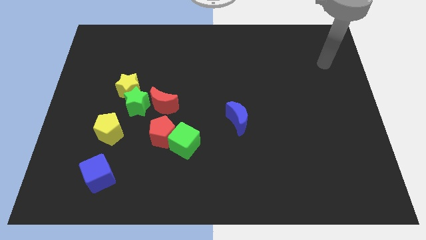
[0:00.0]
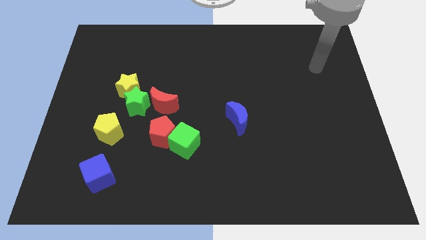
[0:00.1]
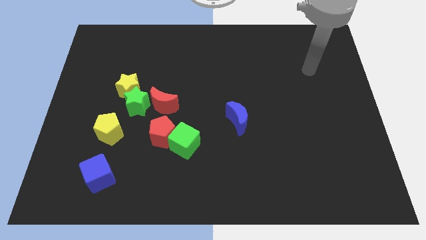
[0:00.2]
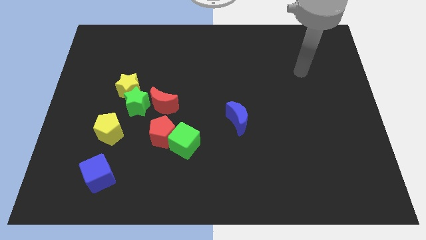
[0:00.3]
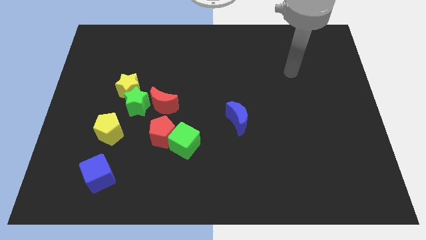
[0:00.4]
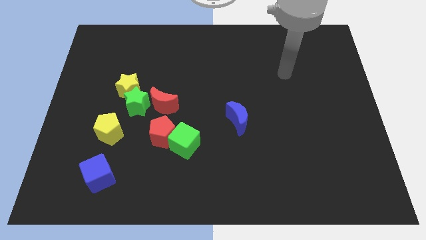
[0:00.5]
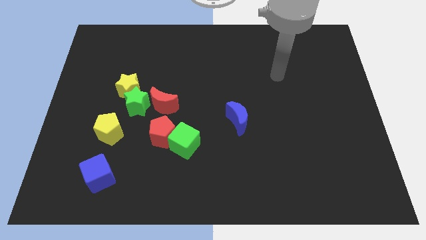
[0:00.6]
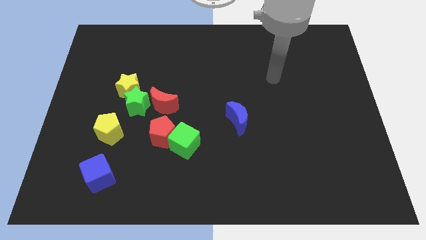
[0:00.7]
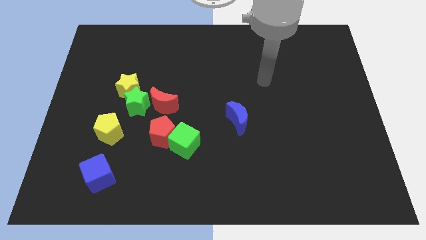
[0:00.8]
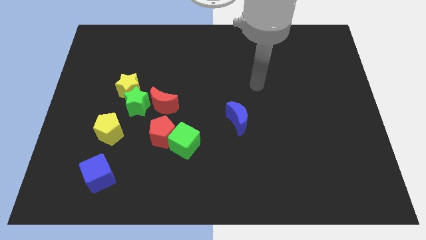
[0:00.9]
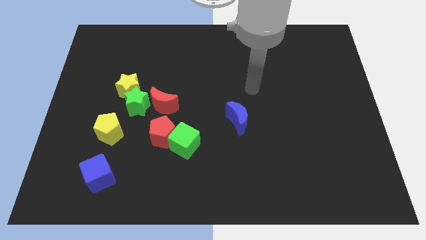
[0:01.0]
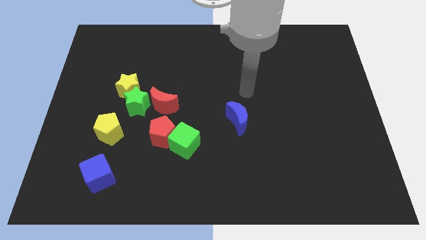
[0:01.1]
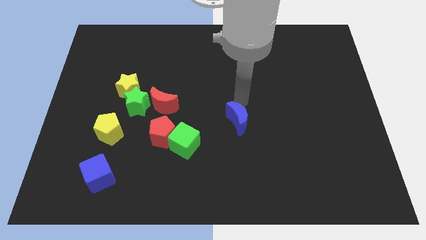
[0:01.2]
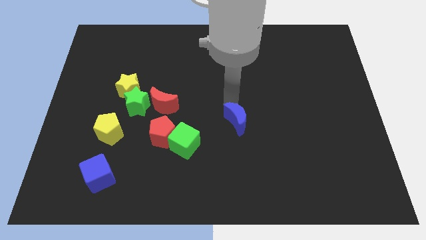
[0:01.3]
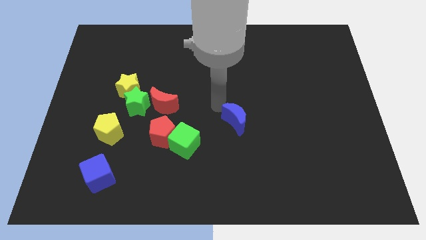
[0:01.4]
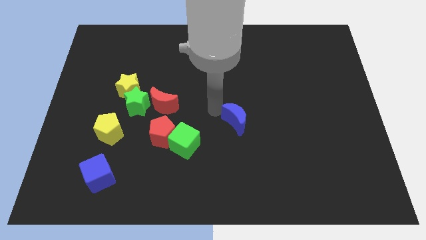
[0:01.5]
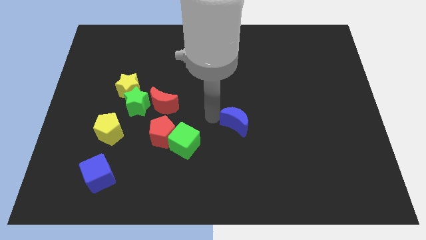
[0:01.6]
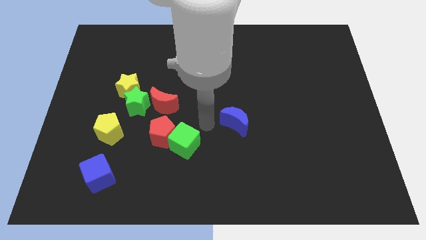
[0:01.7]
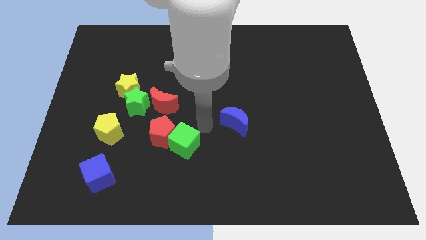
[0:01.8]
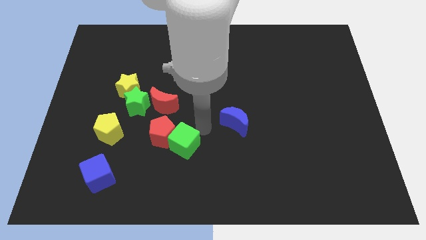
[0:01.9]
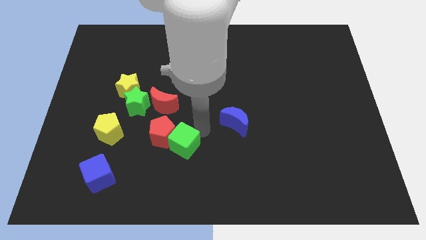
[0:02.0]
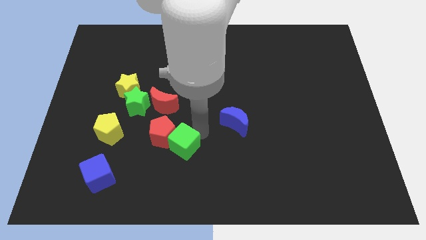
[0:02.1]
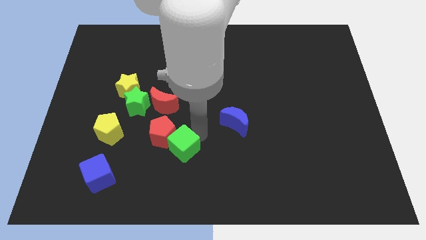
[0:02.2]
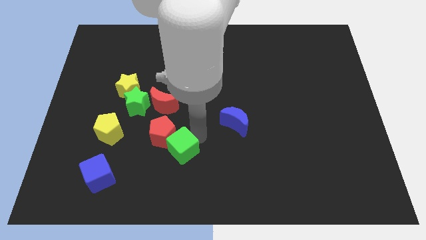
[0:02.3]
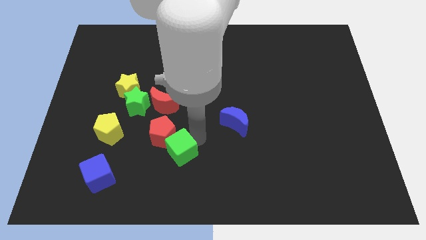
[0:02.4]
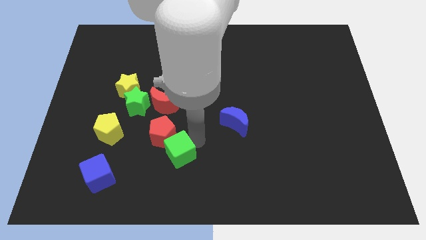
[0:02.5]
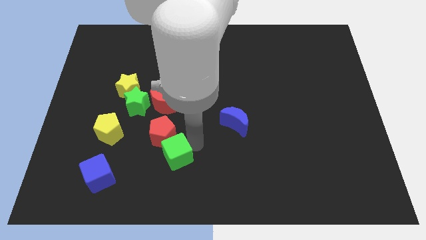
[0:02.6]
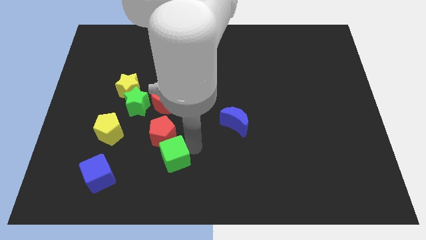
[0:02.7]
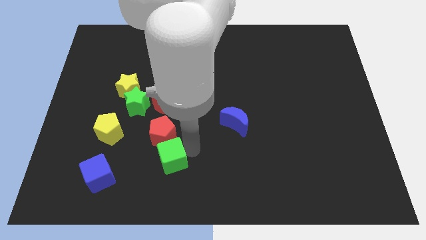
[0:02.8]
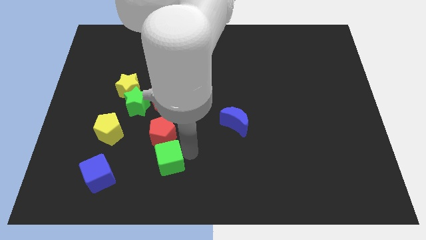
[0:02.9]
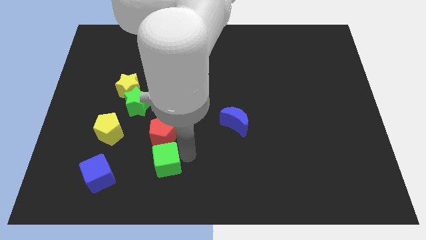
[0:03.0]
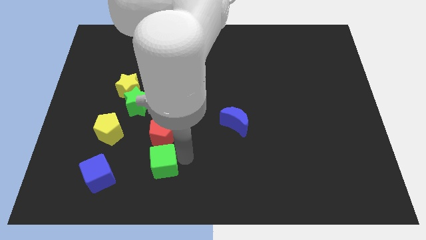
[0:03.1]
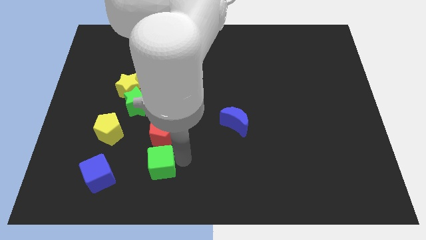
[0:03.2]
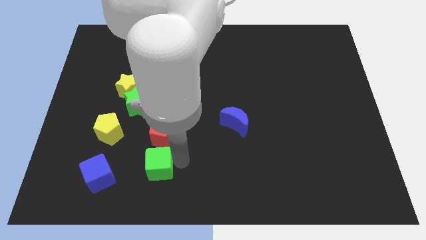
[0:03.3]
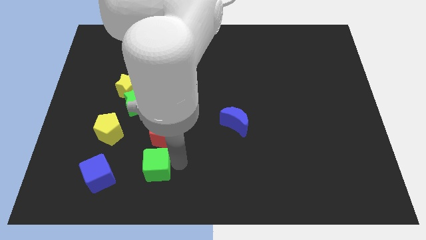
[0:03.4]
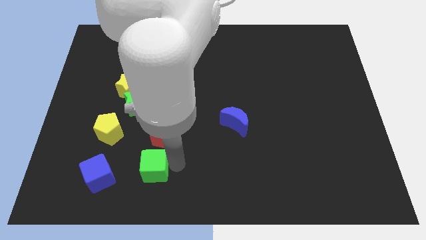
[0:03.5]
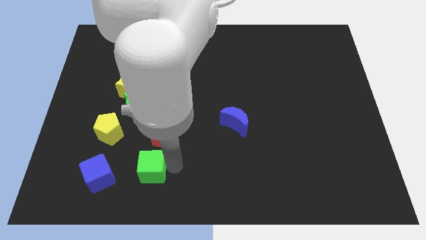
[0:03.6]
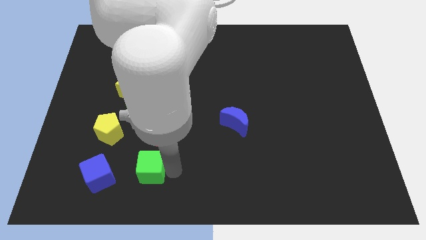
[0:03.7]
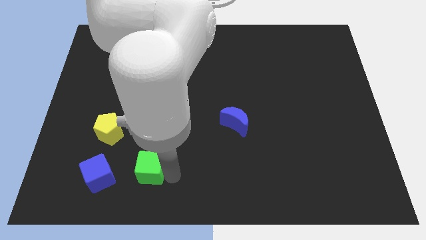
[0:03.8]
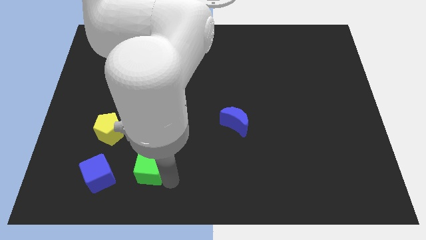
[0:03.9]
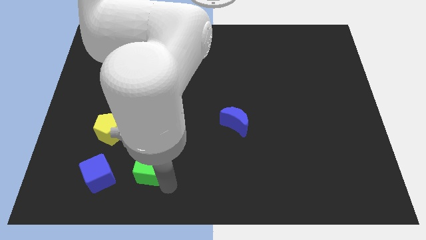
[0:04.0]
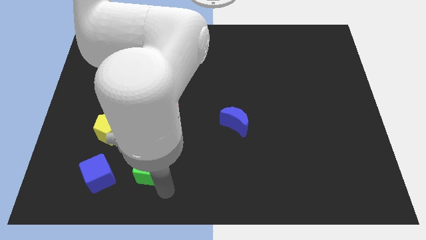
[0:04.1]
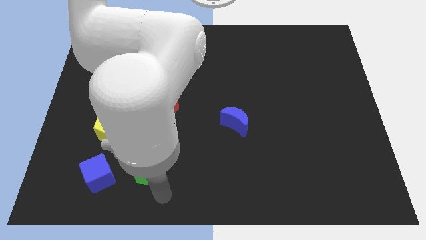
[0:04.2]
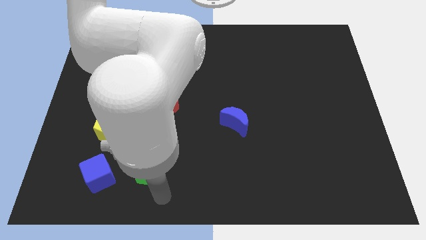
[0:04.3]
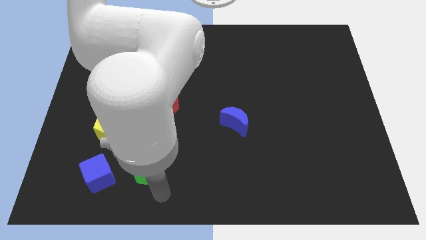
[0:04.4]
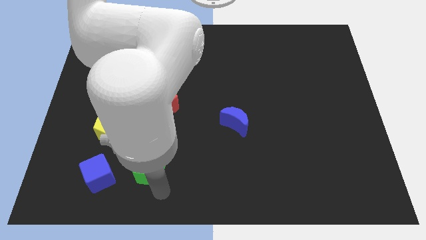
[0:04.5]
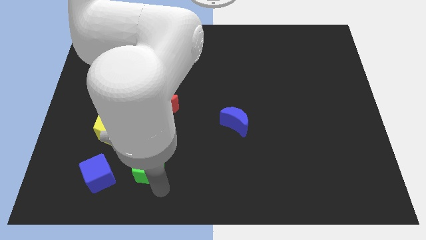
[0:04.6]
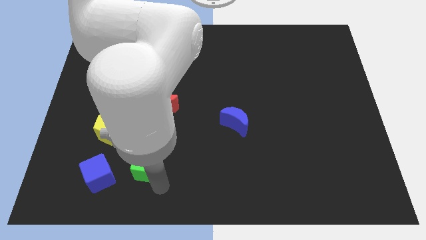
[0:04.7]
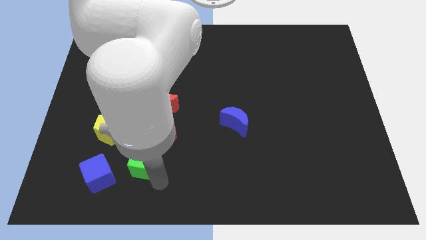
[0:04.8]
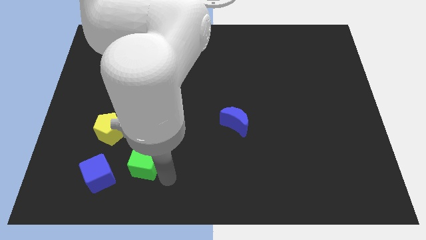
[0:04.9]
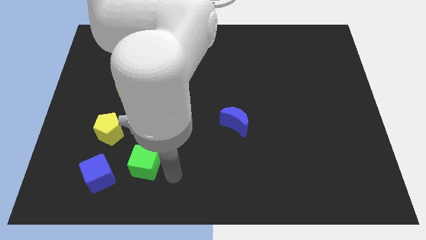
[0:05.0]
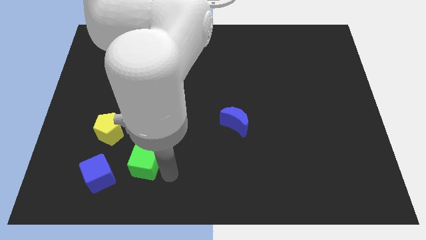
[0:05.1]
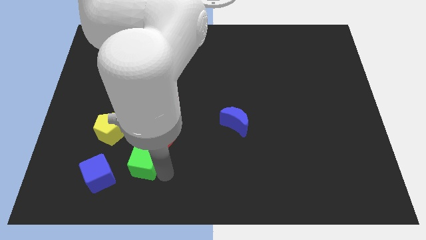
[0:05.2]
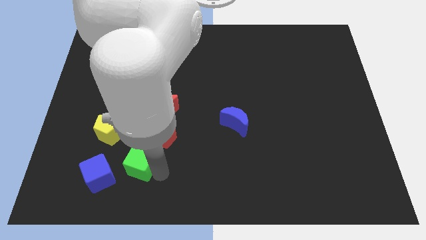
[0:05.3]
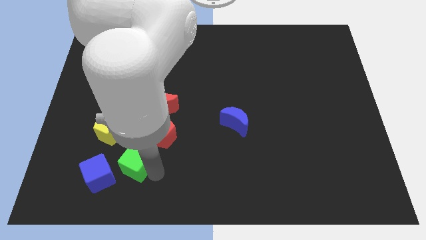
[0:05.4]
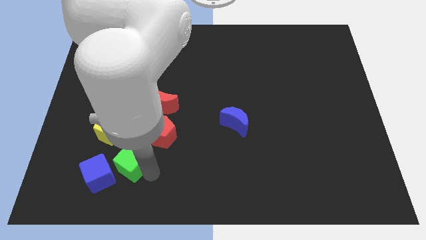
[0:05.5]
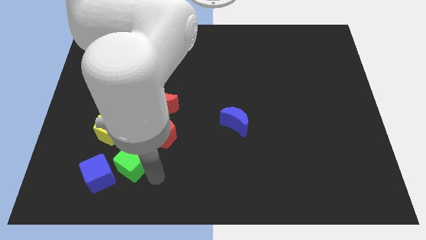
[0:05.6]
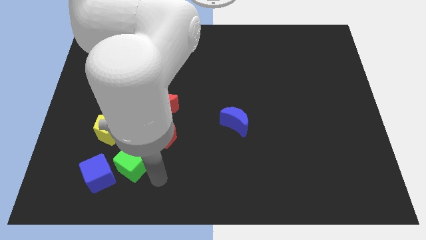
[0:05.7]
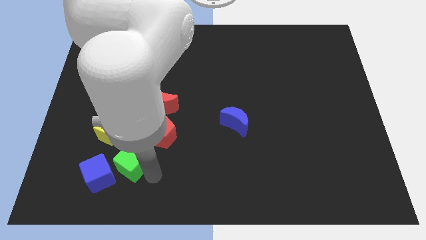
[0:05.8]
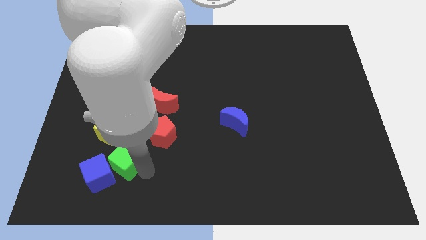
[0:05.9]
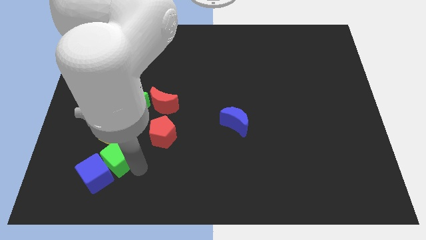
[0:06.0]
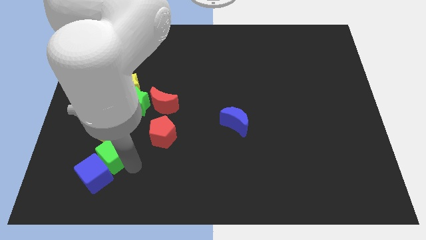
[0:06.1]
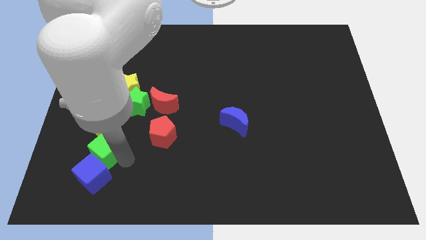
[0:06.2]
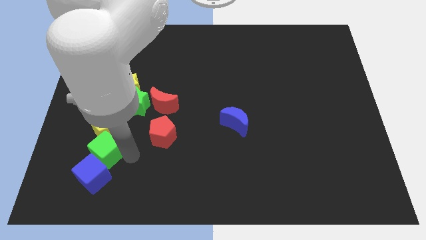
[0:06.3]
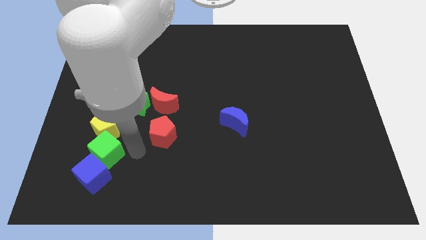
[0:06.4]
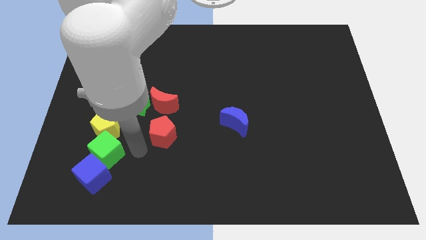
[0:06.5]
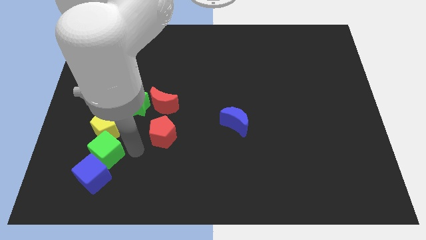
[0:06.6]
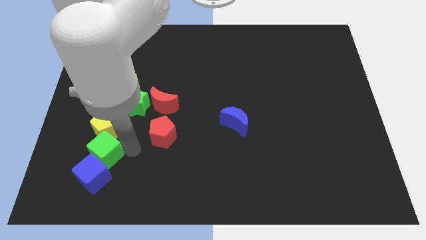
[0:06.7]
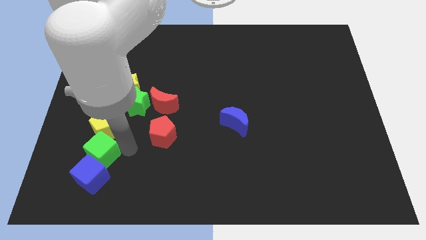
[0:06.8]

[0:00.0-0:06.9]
move the green cube diagonally up and to the left of the blue cube

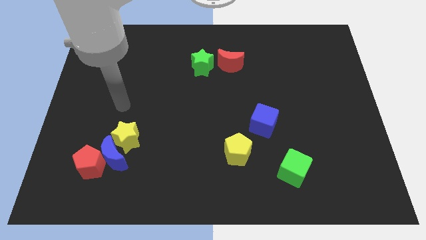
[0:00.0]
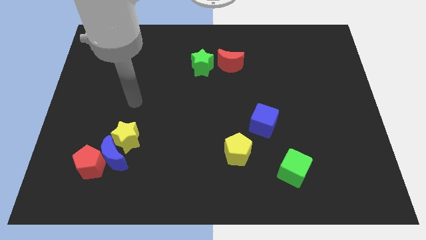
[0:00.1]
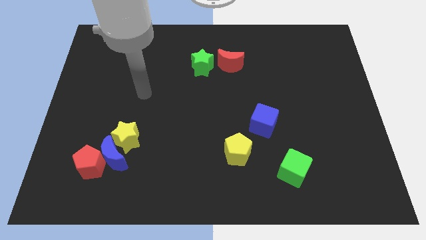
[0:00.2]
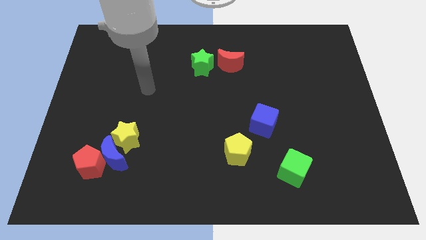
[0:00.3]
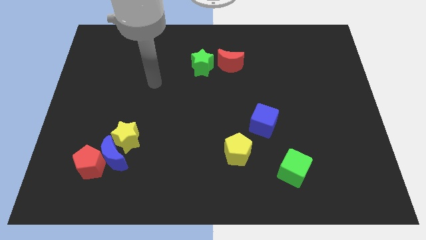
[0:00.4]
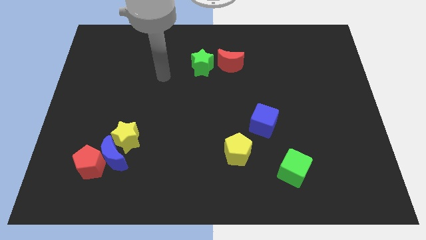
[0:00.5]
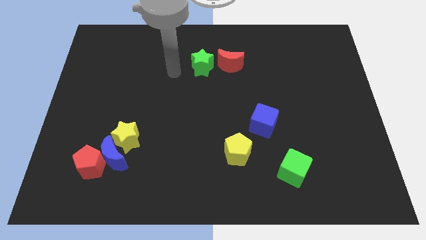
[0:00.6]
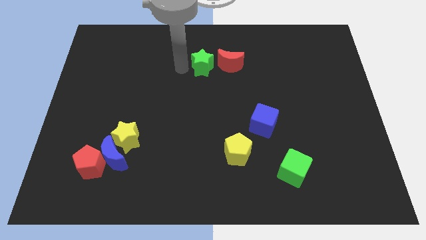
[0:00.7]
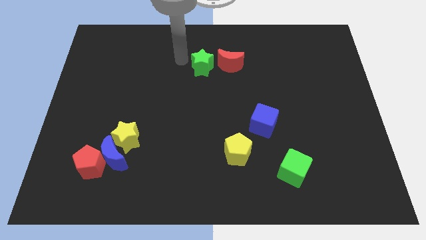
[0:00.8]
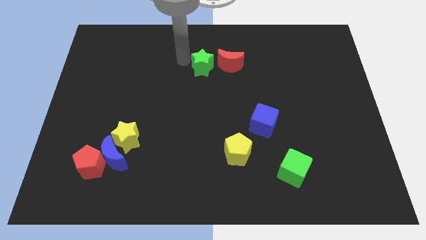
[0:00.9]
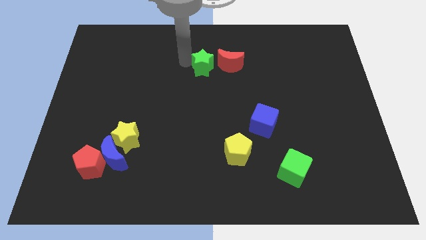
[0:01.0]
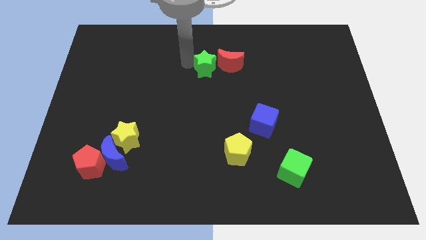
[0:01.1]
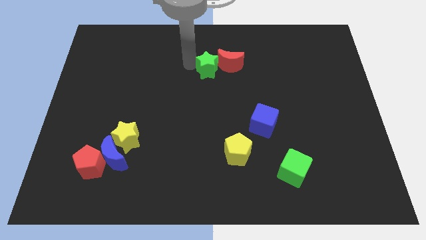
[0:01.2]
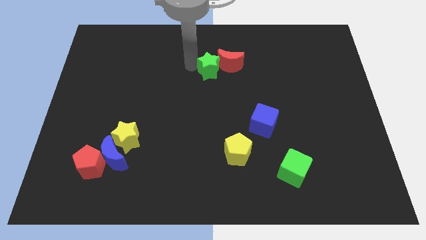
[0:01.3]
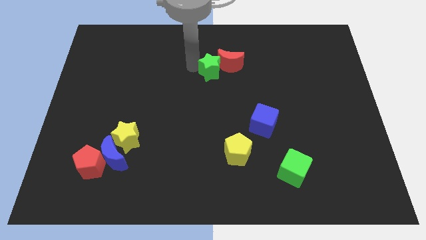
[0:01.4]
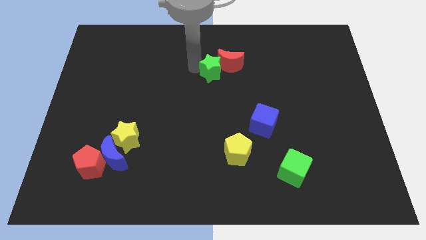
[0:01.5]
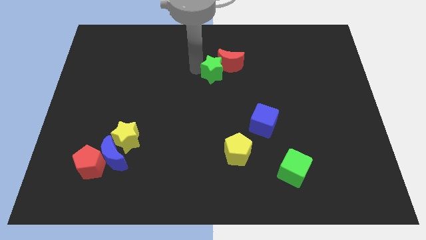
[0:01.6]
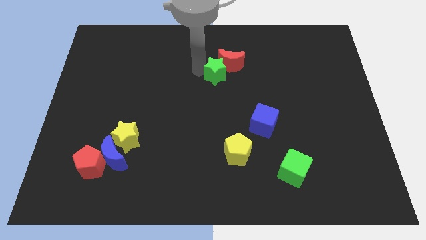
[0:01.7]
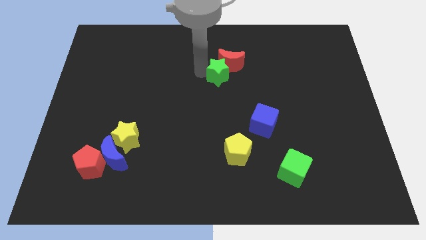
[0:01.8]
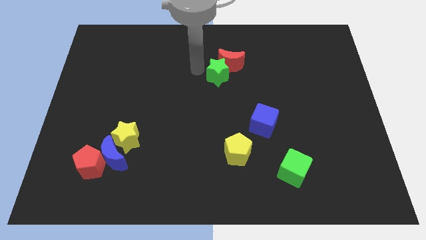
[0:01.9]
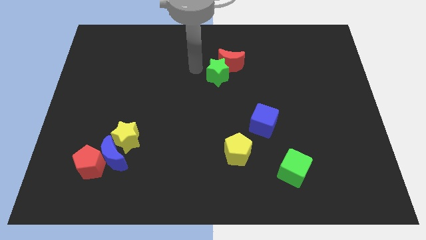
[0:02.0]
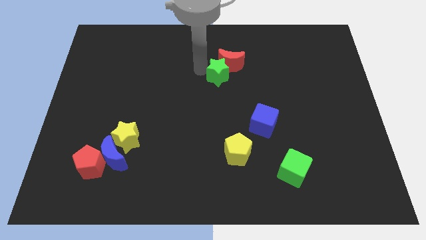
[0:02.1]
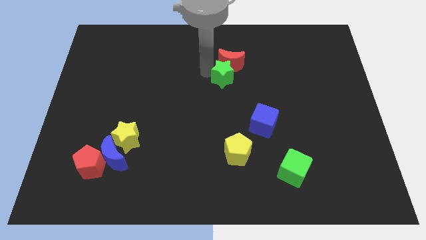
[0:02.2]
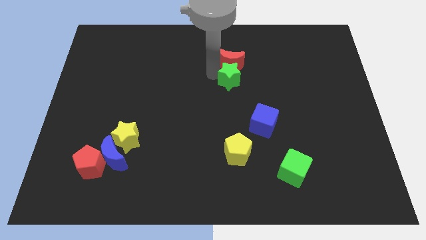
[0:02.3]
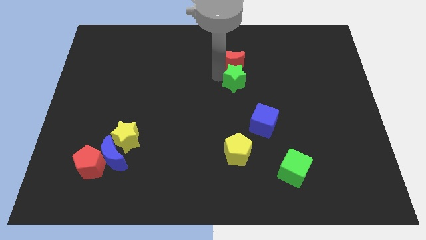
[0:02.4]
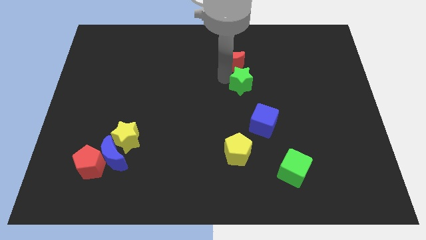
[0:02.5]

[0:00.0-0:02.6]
put the green star to the top side of the blue cube
